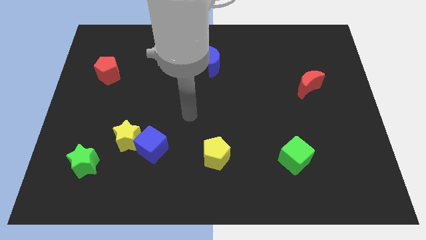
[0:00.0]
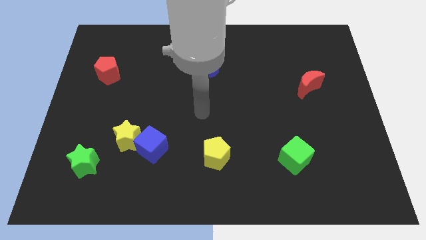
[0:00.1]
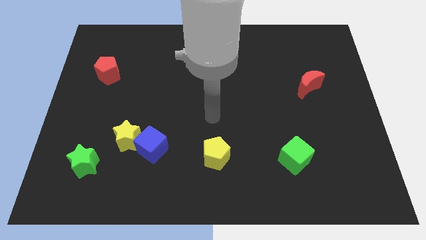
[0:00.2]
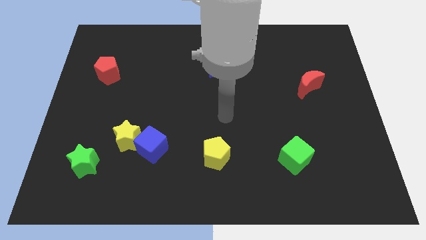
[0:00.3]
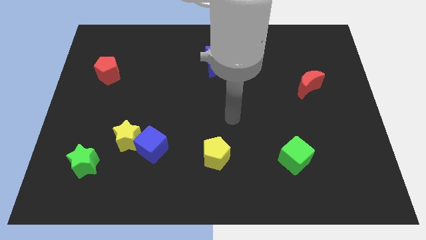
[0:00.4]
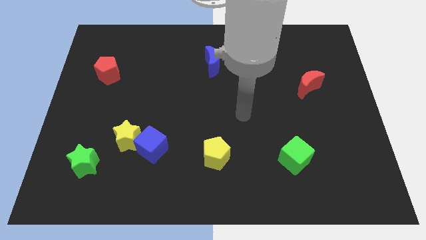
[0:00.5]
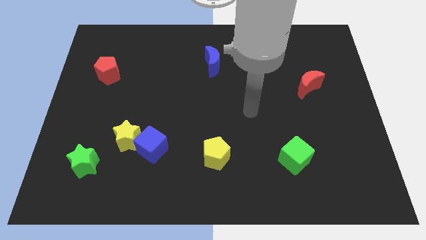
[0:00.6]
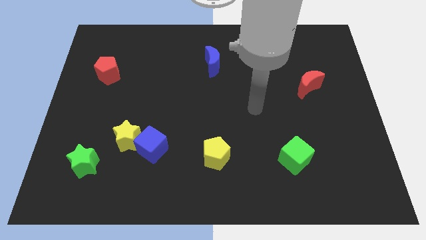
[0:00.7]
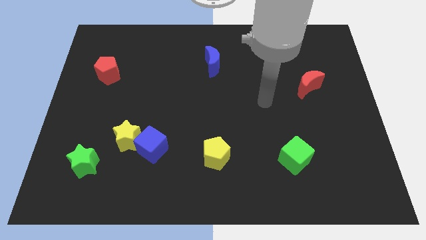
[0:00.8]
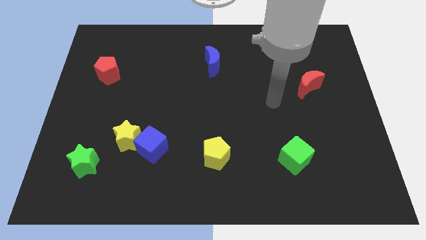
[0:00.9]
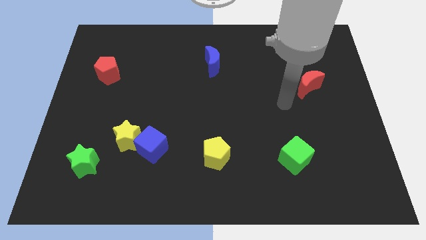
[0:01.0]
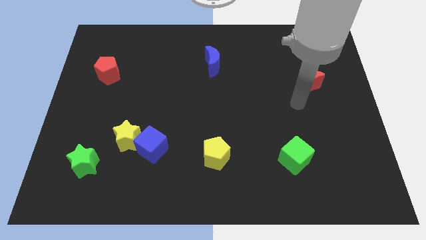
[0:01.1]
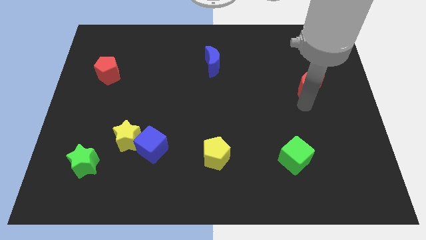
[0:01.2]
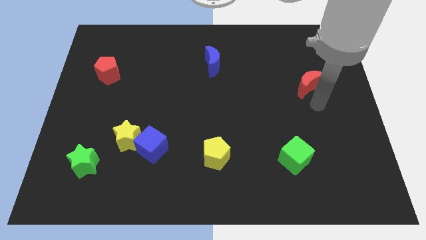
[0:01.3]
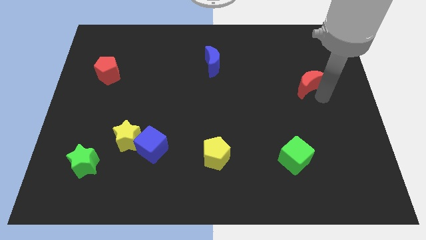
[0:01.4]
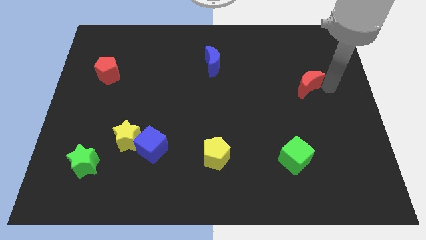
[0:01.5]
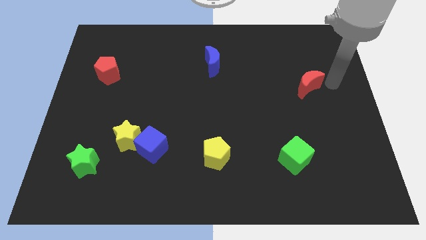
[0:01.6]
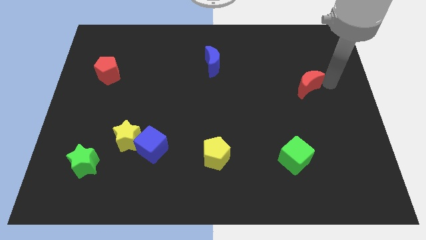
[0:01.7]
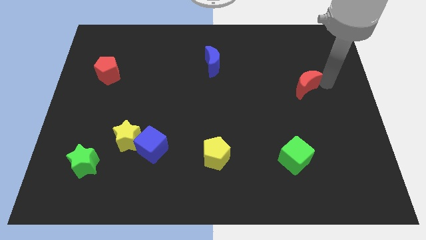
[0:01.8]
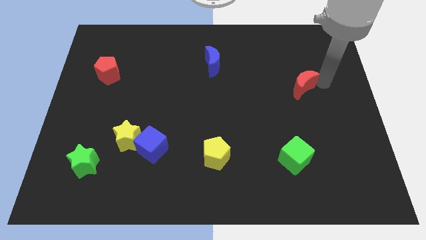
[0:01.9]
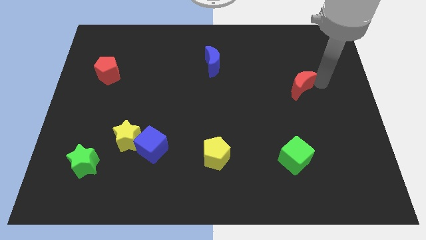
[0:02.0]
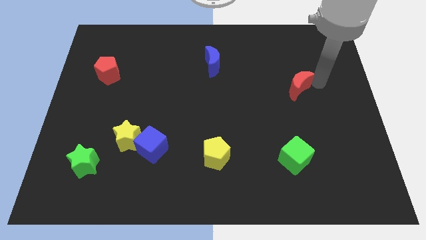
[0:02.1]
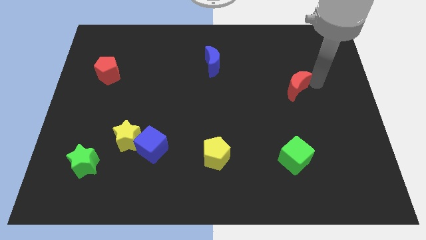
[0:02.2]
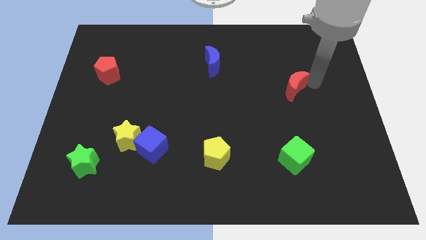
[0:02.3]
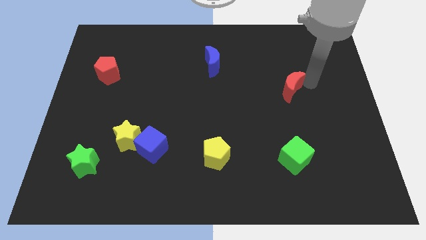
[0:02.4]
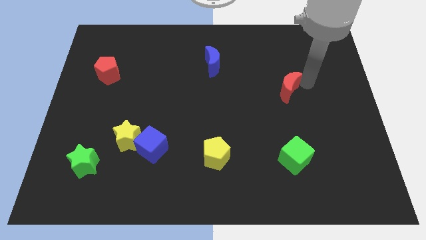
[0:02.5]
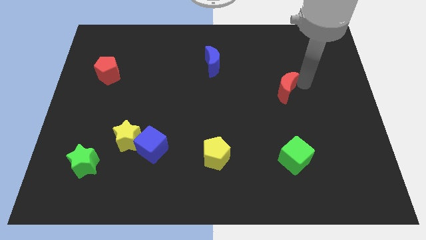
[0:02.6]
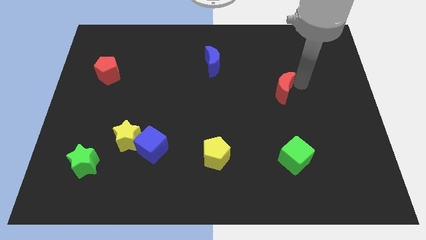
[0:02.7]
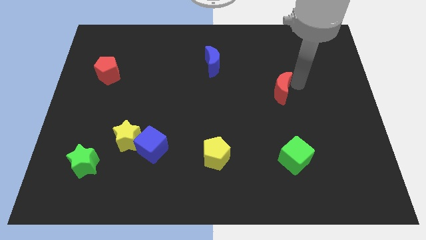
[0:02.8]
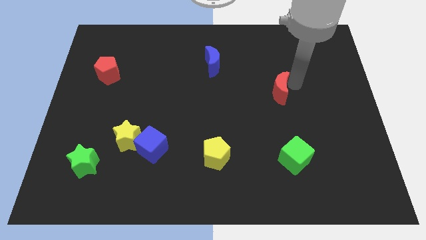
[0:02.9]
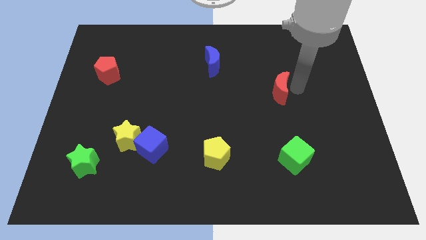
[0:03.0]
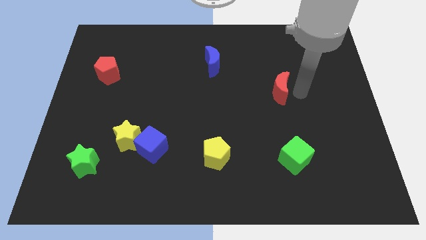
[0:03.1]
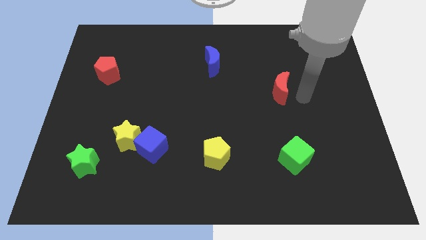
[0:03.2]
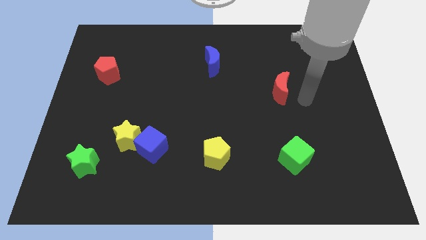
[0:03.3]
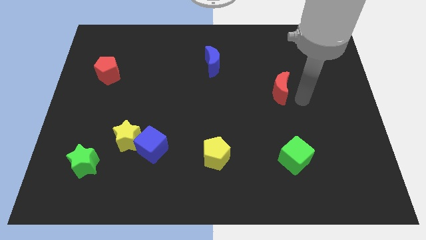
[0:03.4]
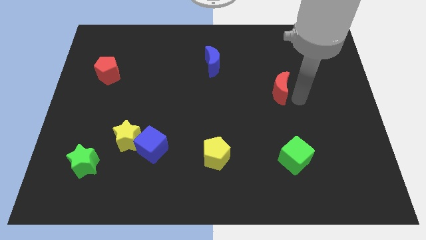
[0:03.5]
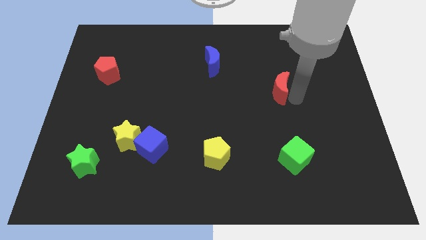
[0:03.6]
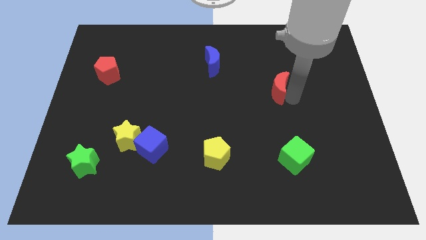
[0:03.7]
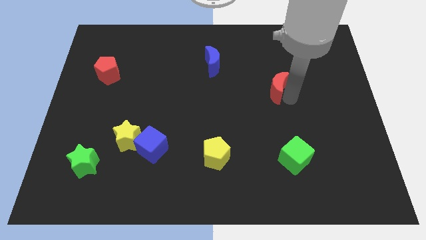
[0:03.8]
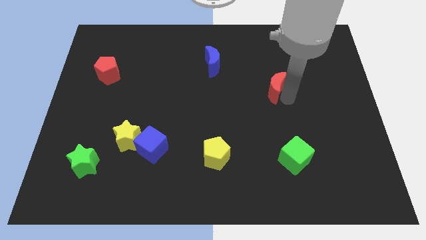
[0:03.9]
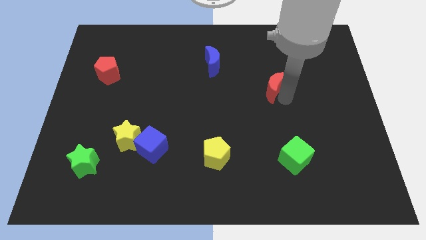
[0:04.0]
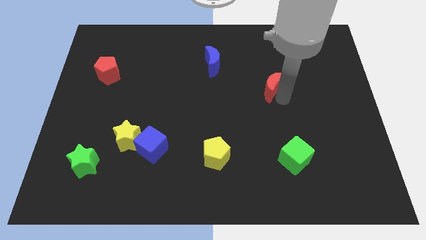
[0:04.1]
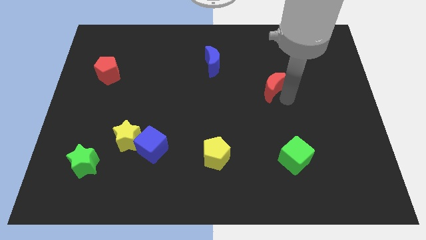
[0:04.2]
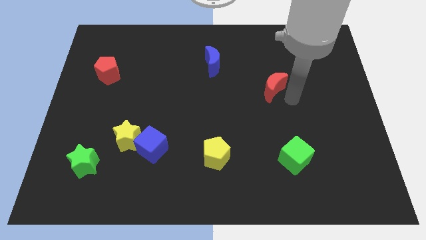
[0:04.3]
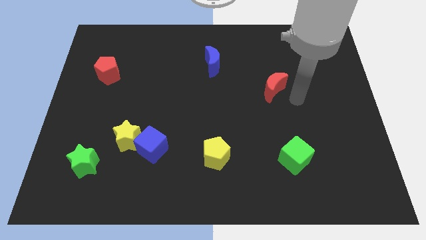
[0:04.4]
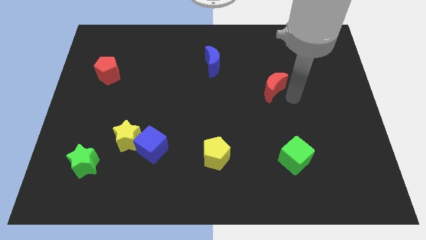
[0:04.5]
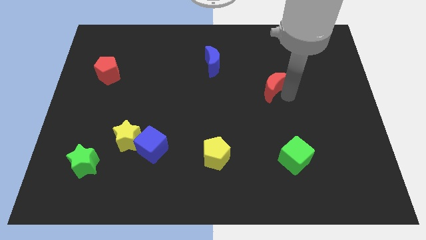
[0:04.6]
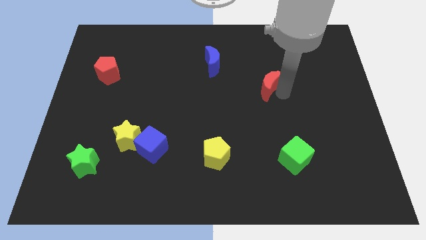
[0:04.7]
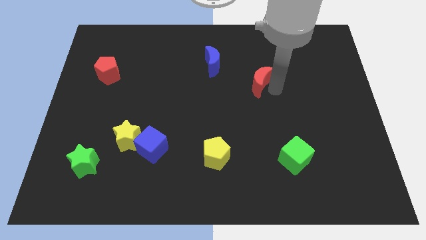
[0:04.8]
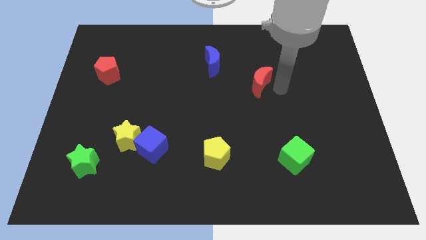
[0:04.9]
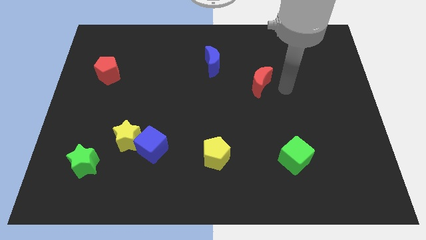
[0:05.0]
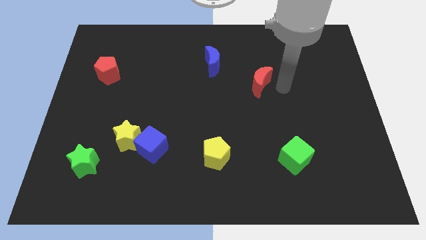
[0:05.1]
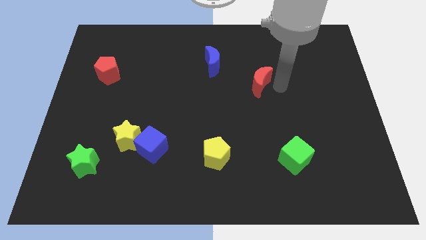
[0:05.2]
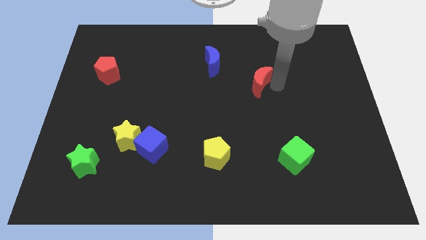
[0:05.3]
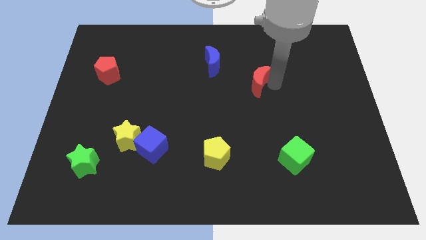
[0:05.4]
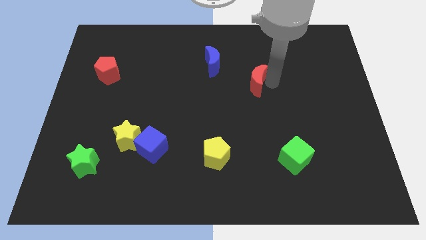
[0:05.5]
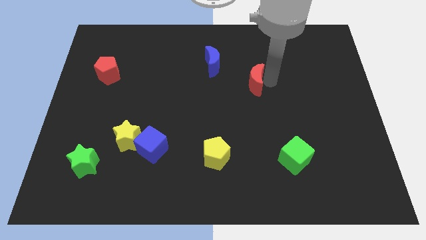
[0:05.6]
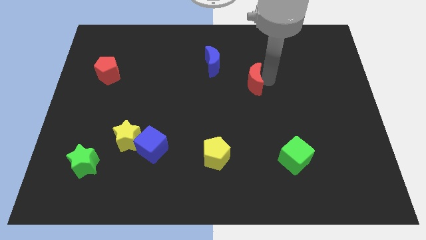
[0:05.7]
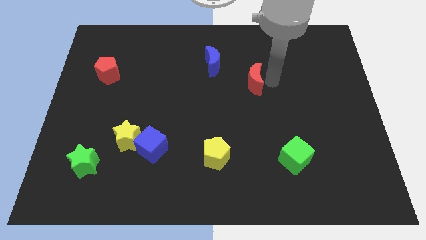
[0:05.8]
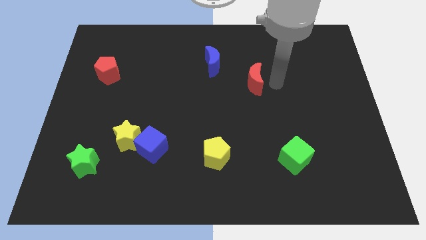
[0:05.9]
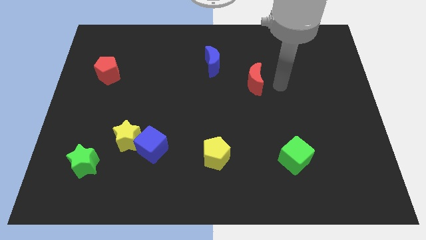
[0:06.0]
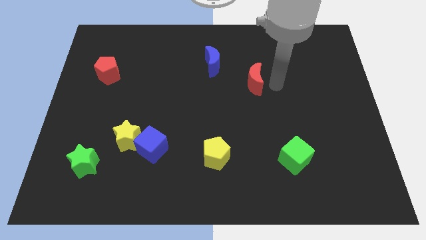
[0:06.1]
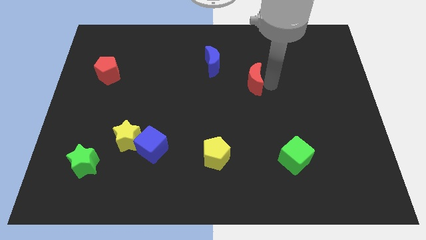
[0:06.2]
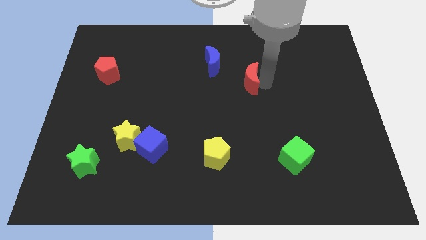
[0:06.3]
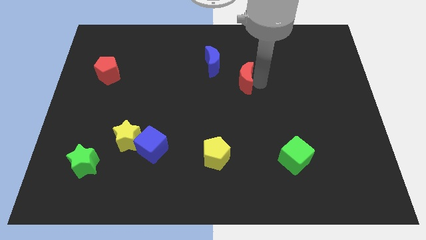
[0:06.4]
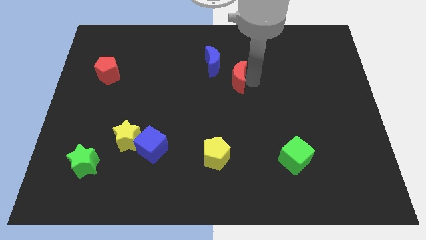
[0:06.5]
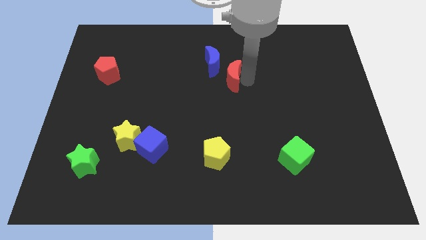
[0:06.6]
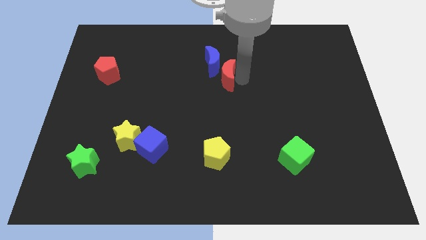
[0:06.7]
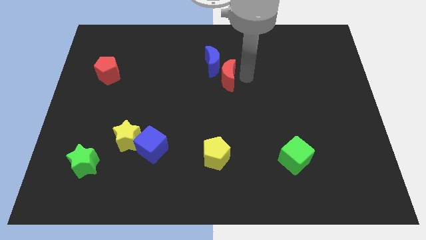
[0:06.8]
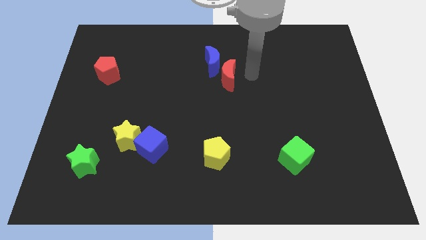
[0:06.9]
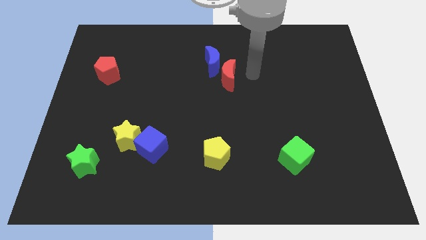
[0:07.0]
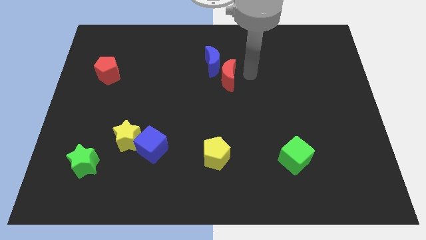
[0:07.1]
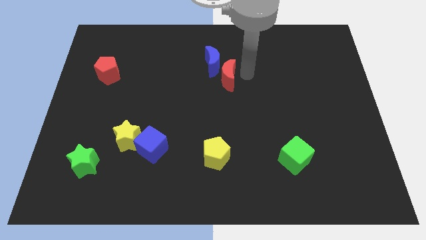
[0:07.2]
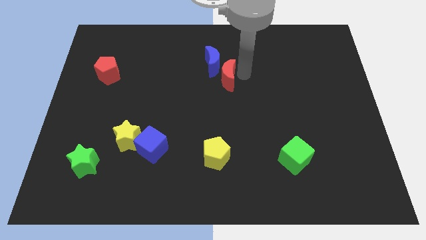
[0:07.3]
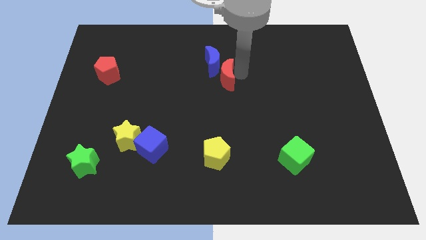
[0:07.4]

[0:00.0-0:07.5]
move the red moon left

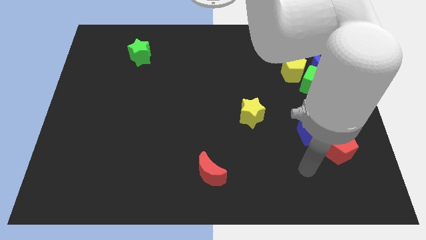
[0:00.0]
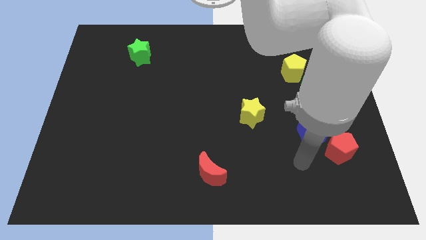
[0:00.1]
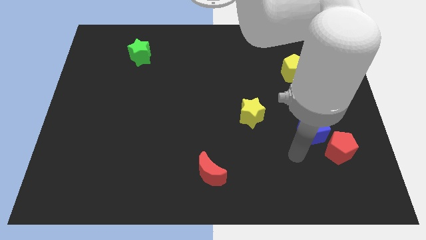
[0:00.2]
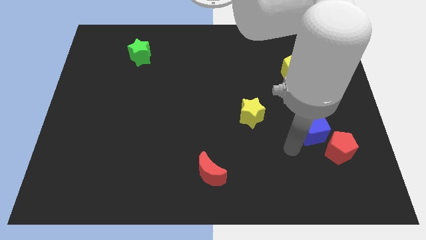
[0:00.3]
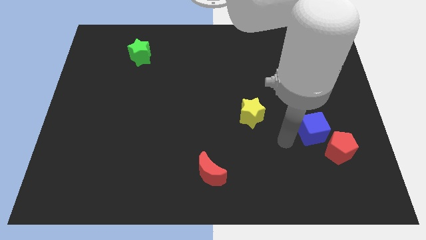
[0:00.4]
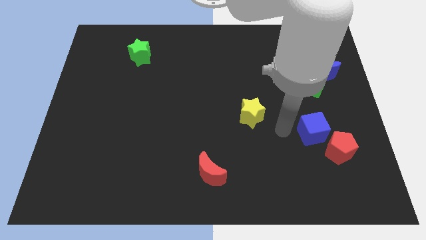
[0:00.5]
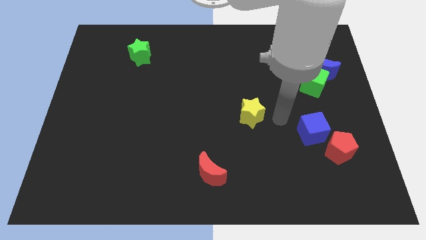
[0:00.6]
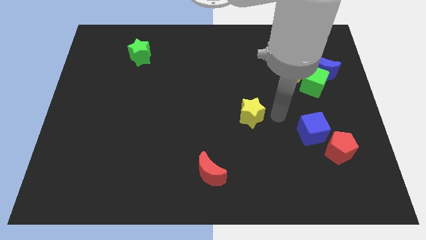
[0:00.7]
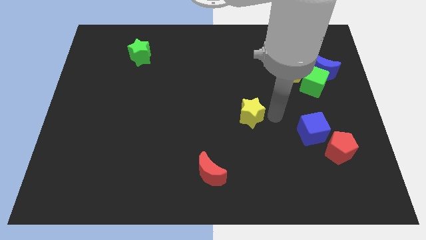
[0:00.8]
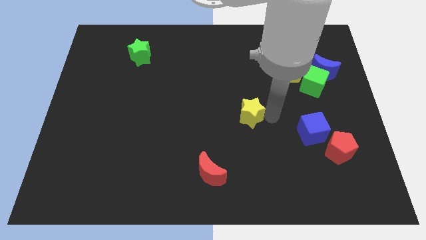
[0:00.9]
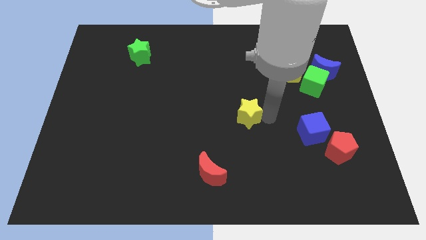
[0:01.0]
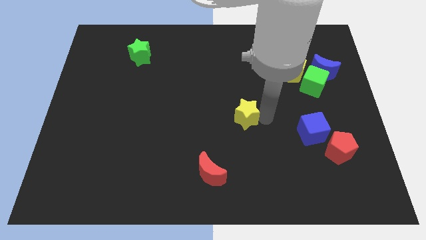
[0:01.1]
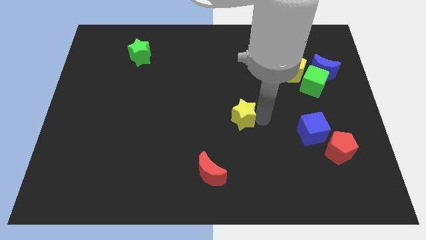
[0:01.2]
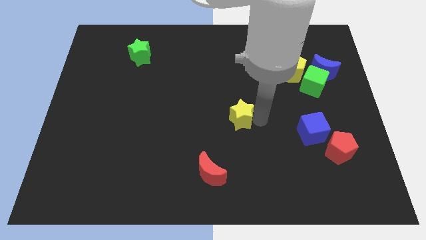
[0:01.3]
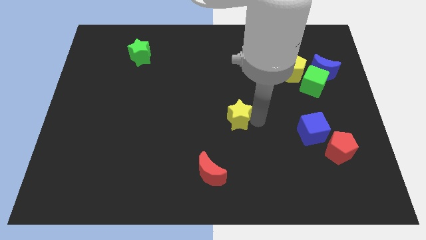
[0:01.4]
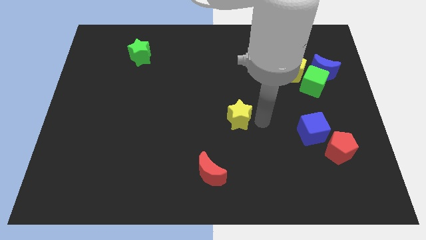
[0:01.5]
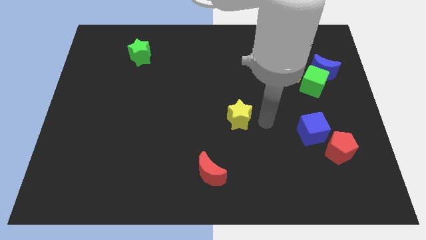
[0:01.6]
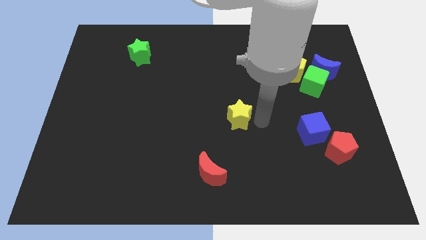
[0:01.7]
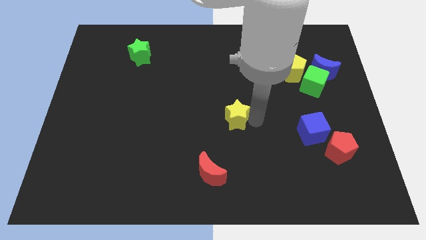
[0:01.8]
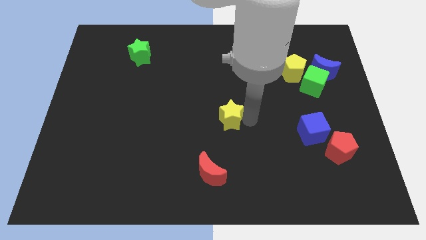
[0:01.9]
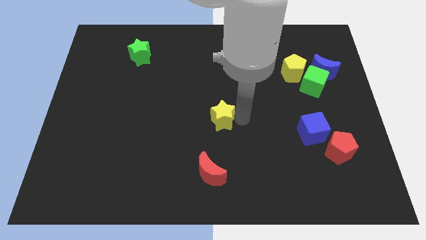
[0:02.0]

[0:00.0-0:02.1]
move the yellow star left slightly
